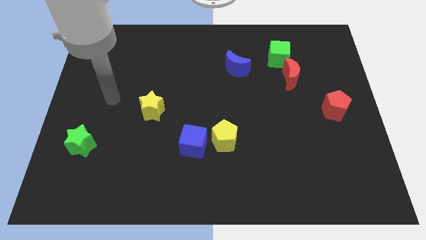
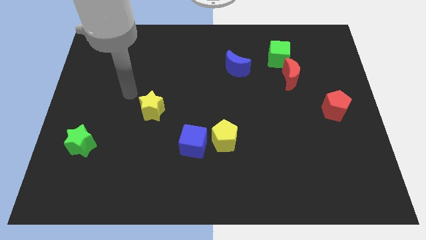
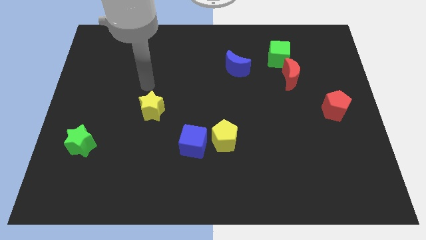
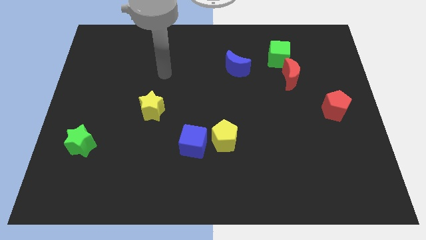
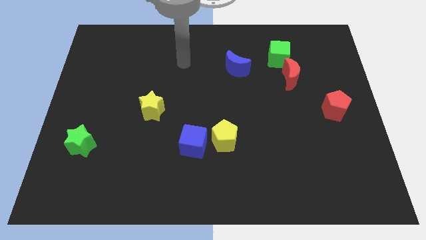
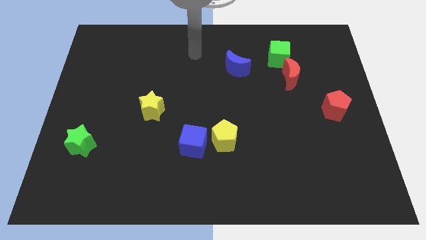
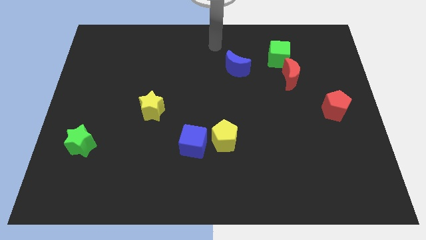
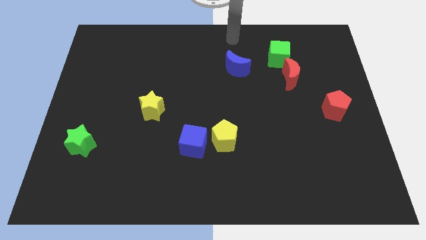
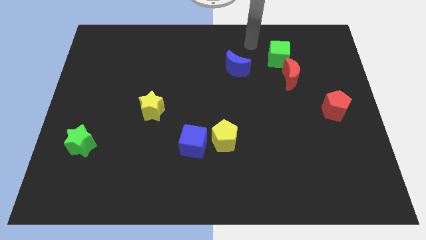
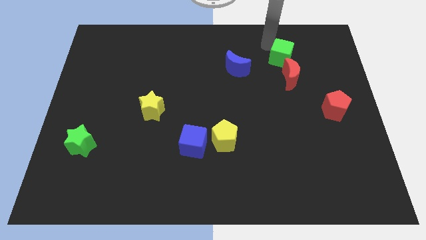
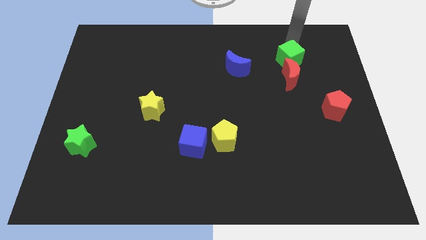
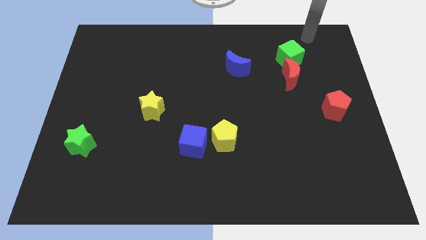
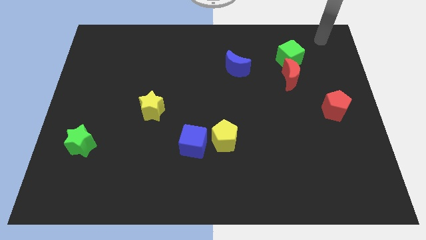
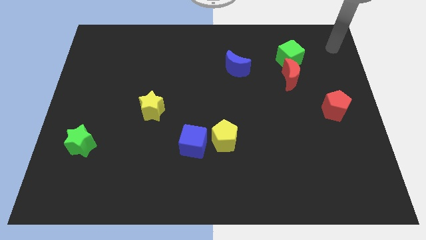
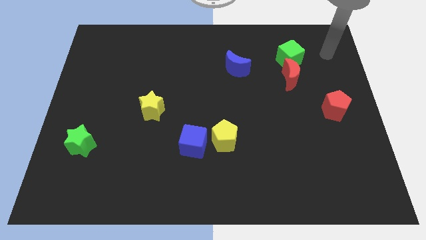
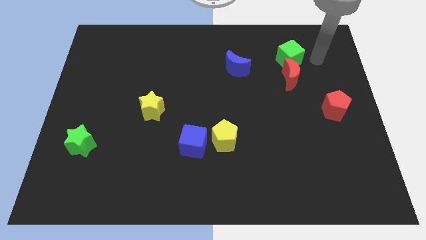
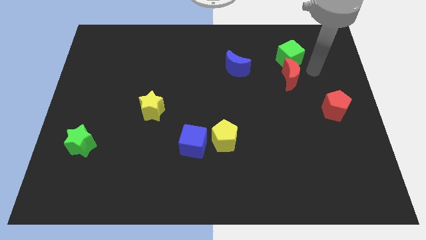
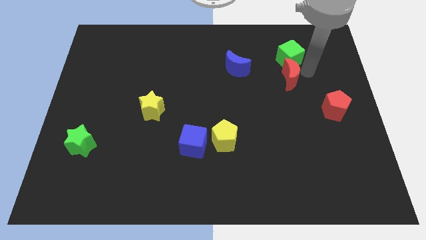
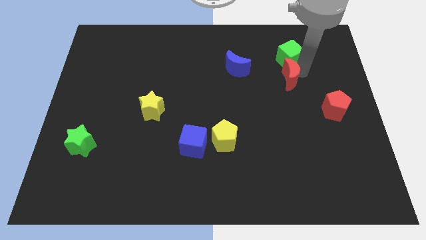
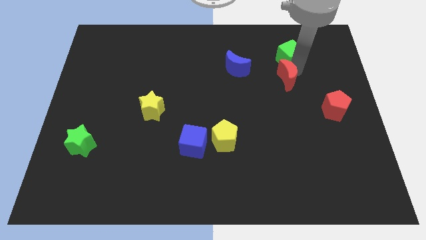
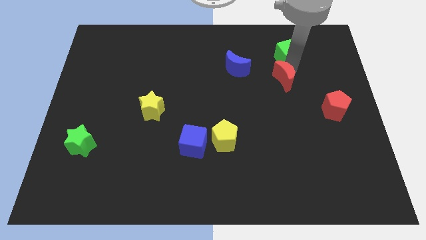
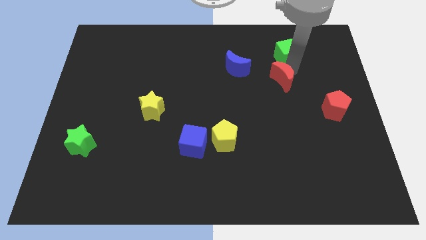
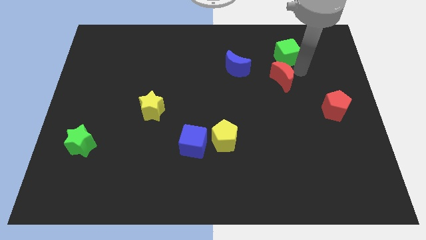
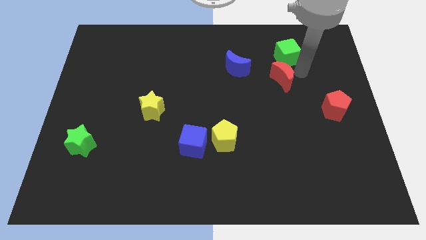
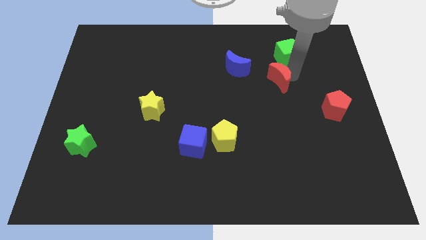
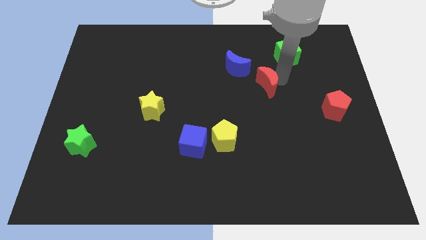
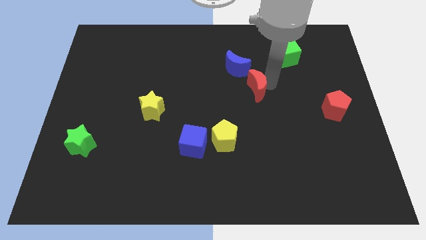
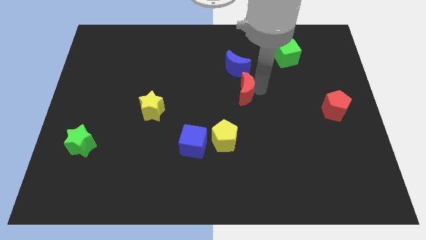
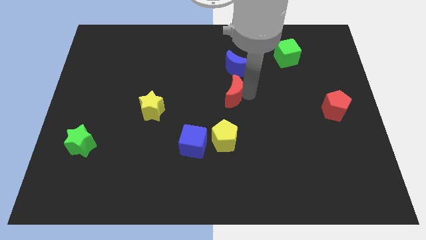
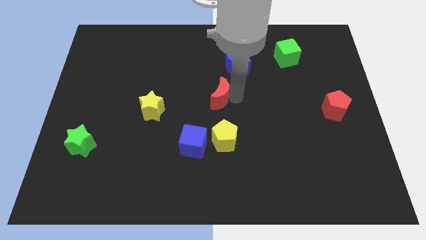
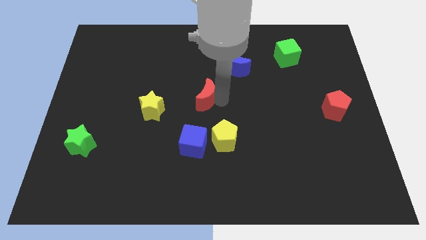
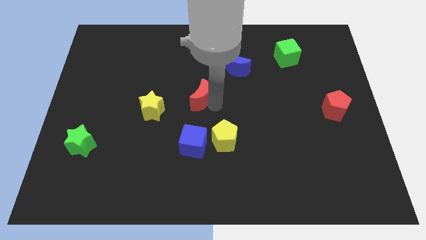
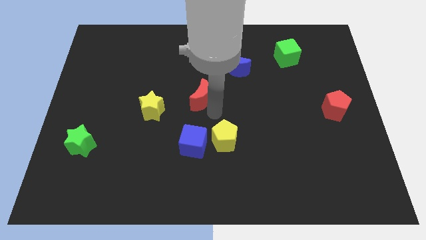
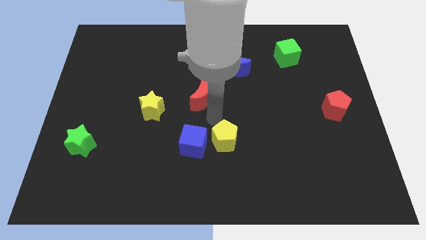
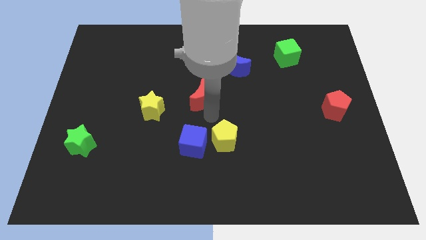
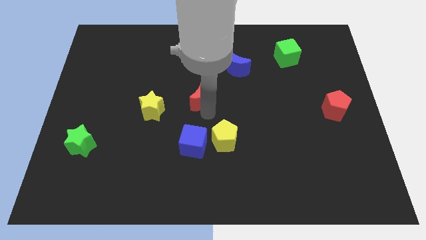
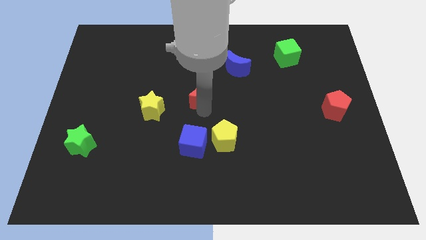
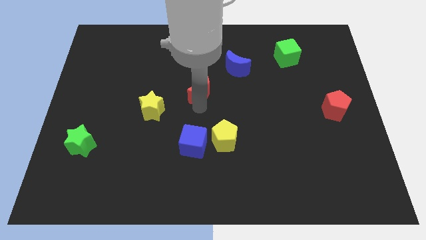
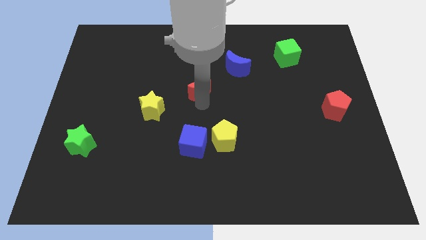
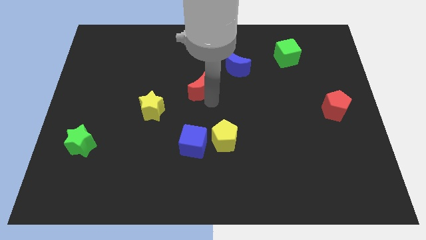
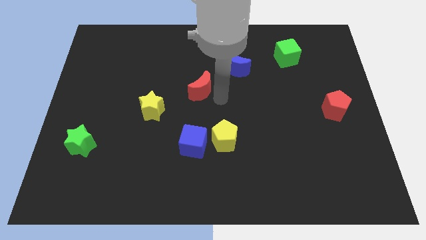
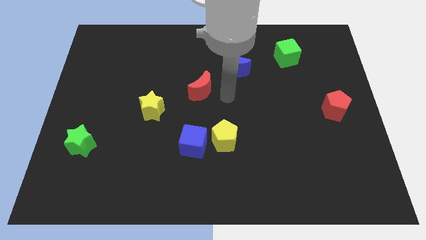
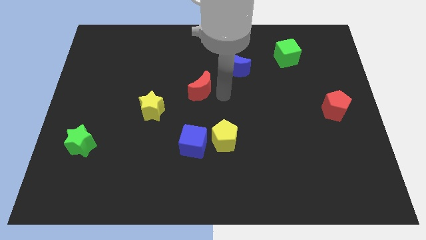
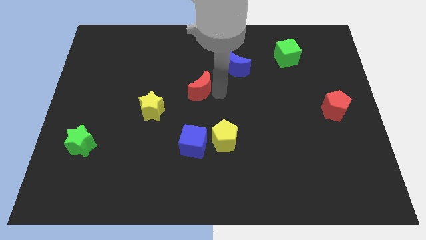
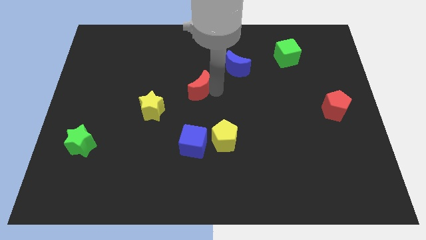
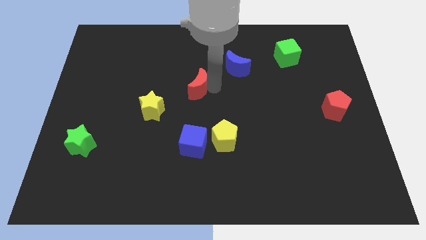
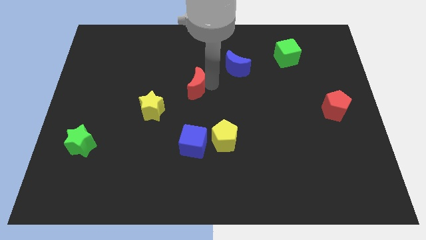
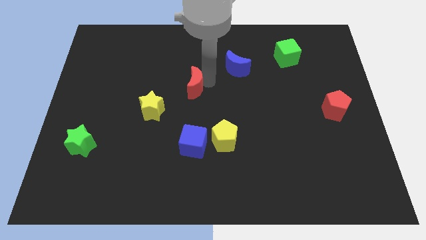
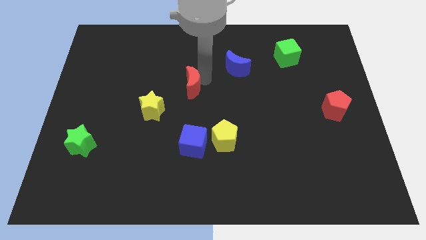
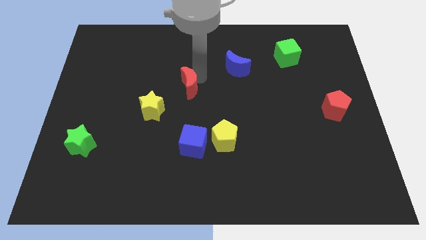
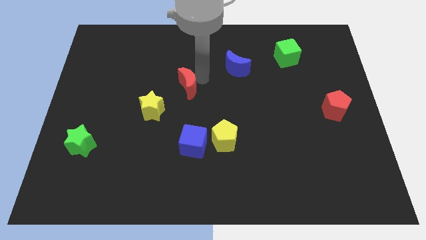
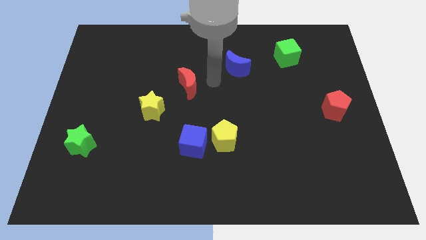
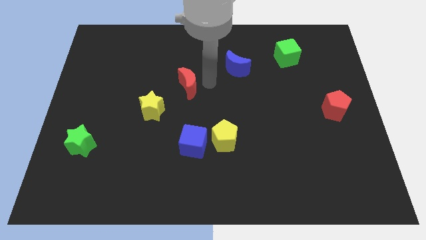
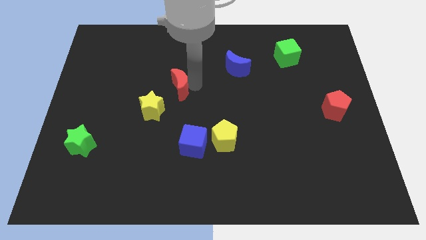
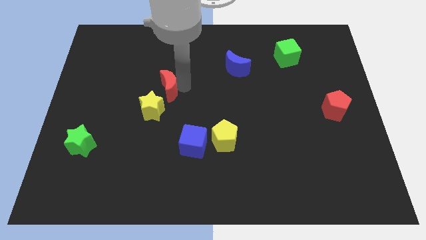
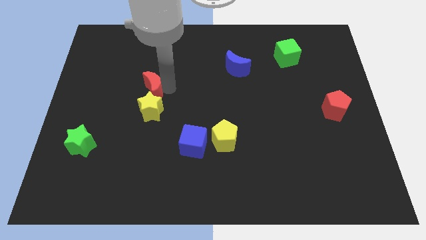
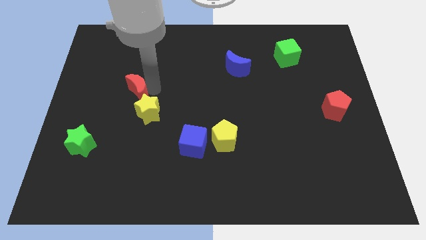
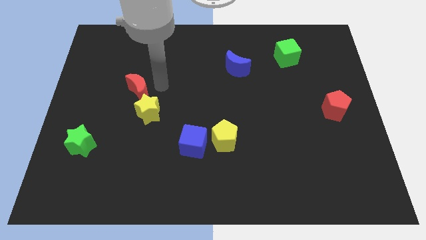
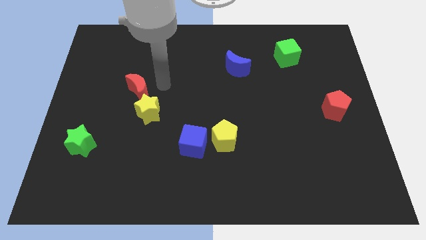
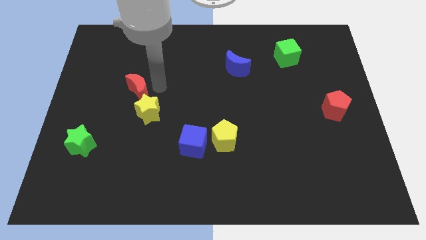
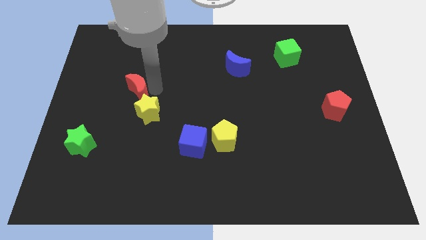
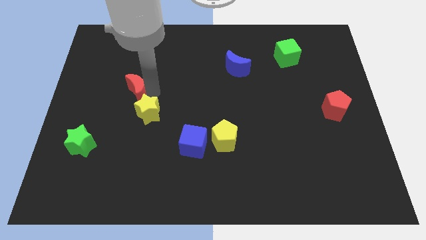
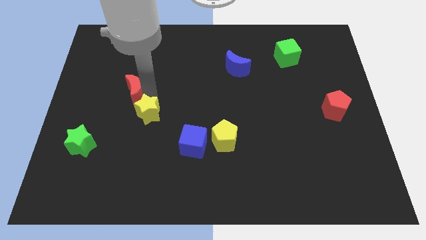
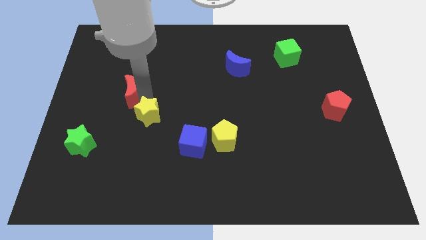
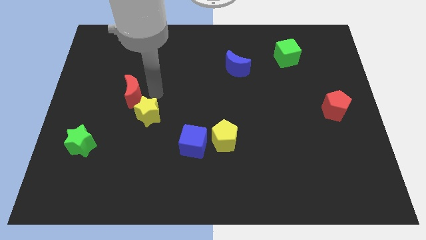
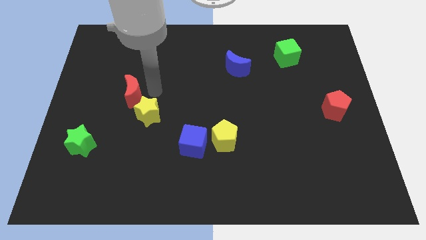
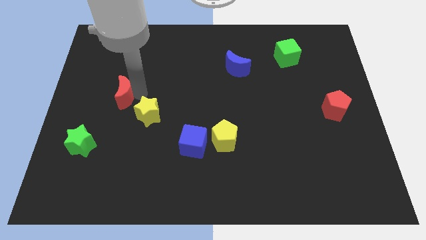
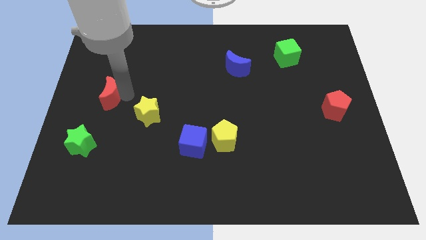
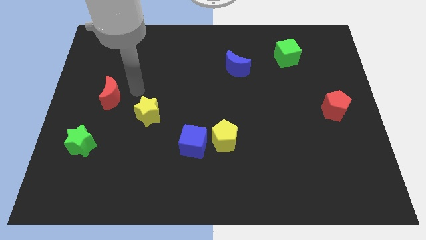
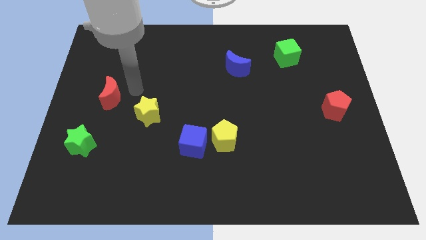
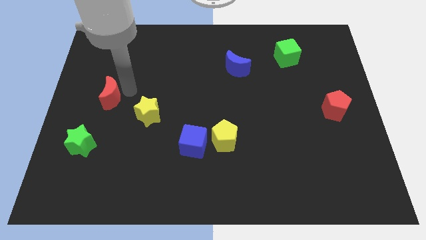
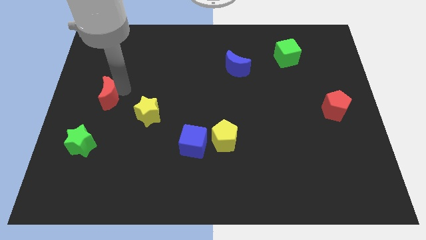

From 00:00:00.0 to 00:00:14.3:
put the red moon to the left side

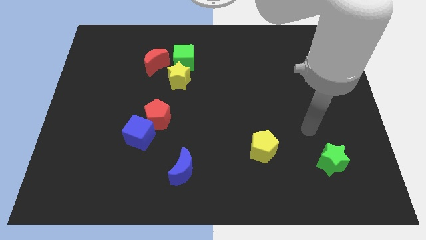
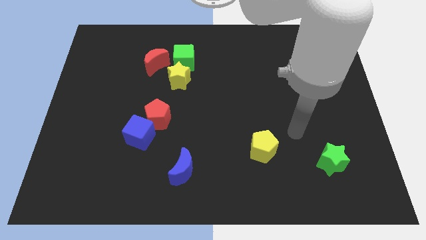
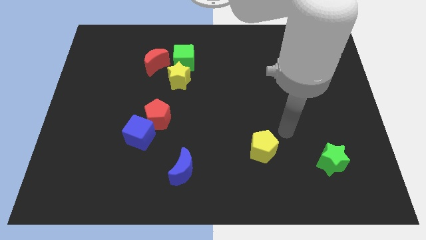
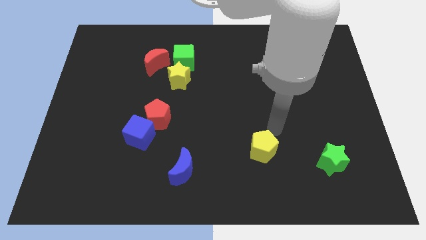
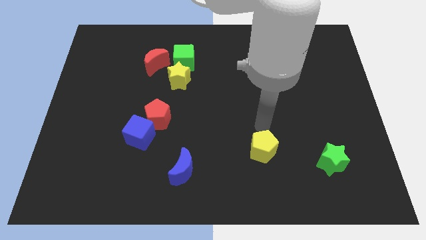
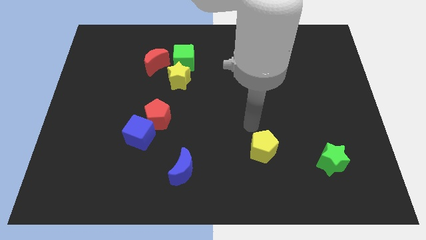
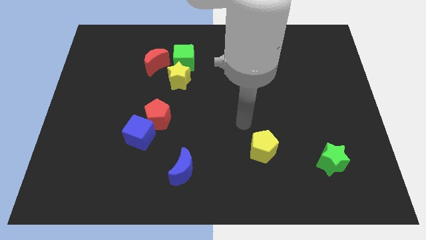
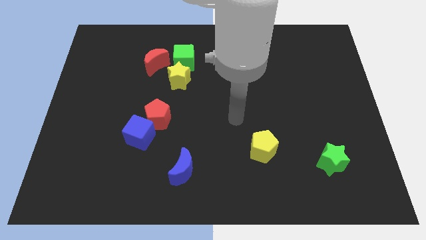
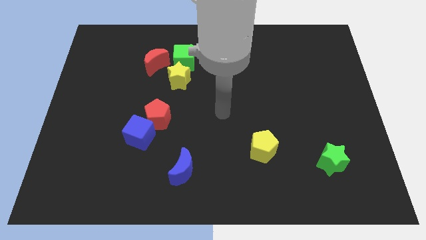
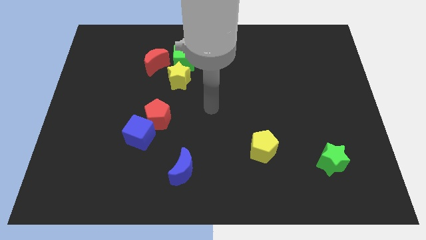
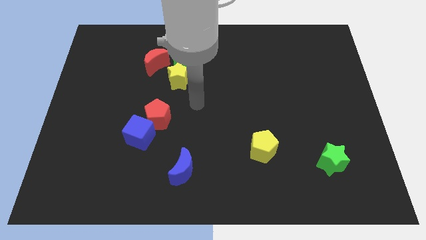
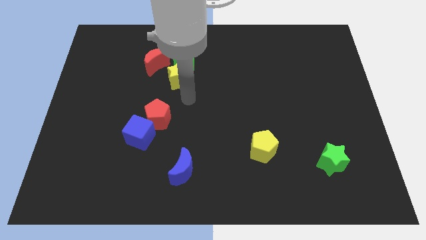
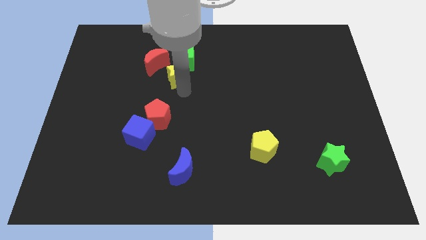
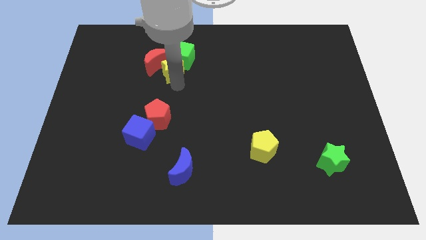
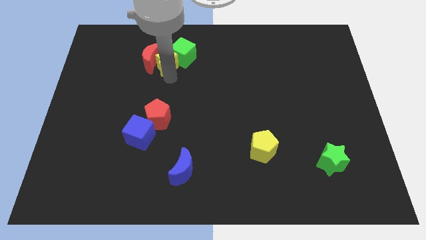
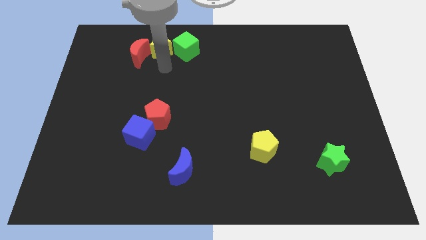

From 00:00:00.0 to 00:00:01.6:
slide the green cube to the top side
